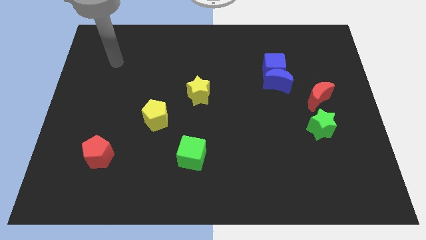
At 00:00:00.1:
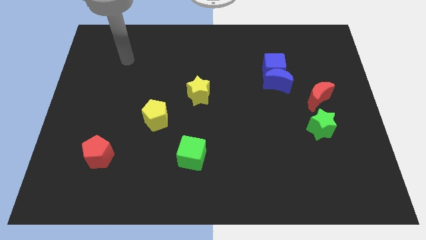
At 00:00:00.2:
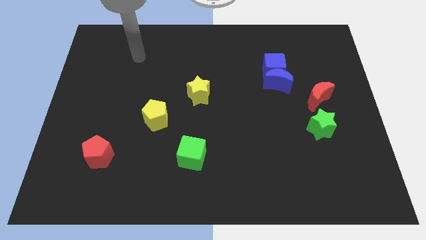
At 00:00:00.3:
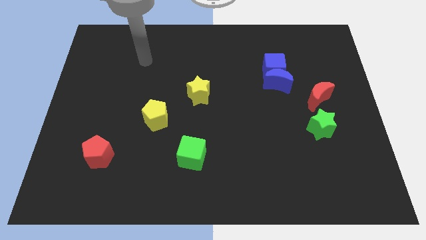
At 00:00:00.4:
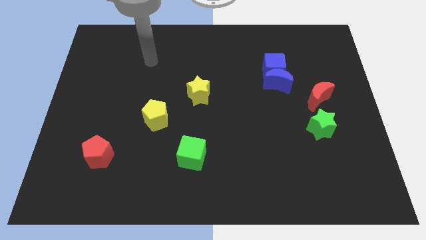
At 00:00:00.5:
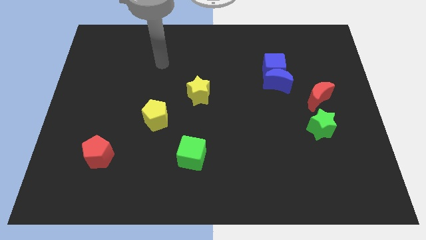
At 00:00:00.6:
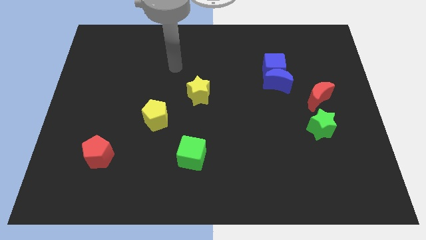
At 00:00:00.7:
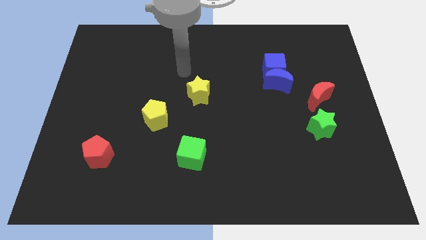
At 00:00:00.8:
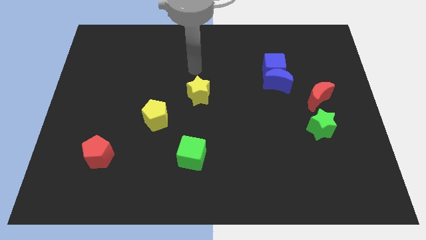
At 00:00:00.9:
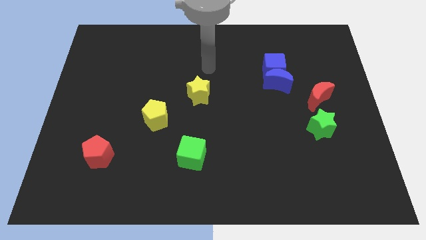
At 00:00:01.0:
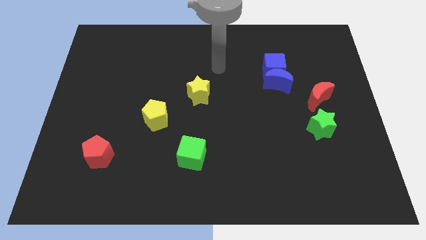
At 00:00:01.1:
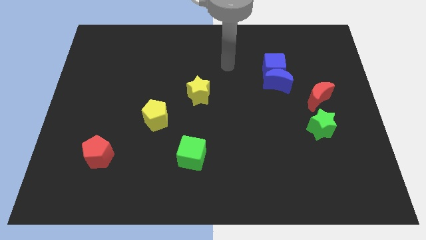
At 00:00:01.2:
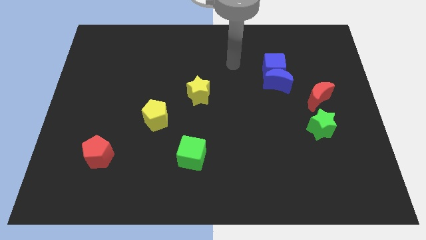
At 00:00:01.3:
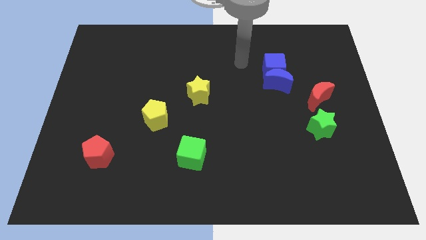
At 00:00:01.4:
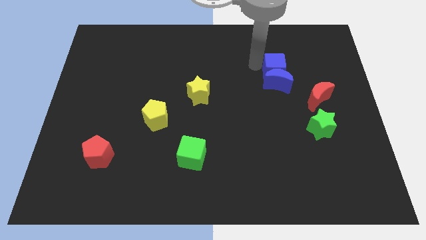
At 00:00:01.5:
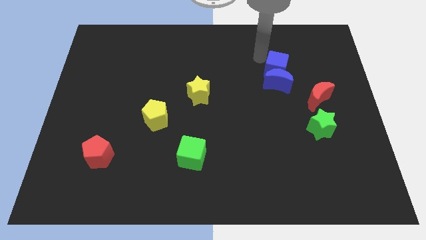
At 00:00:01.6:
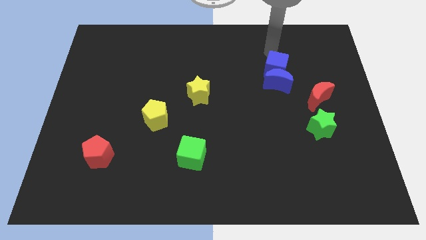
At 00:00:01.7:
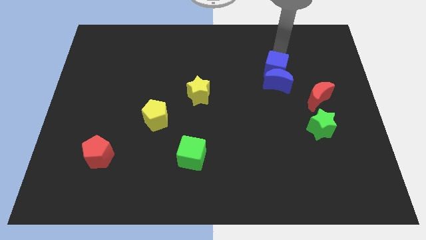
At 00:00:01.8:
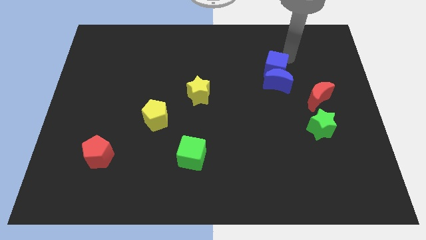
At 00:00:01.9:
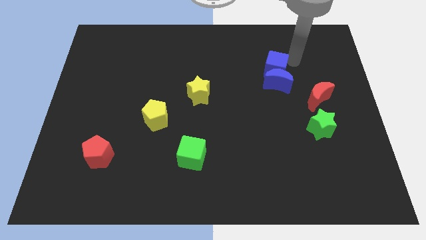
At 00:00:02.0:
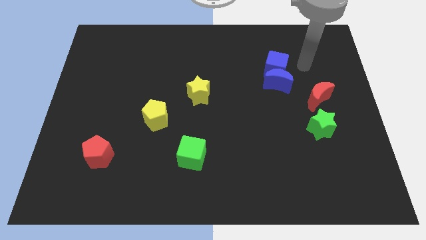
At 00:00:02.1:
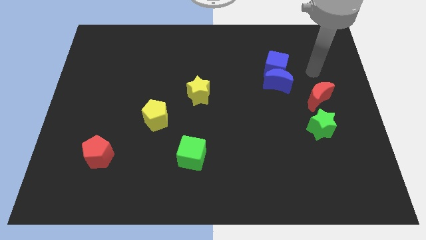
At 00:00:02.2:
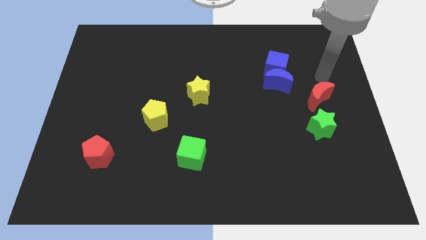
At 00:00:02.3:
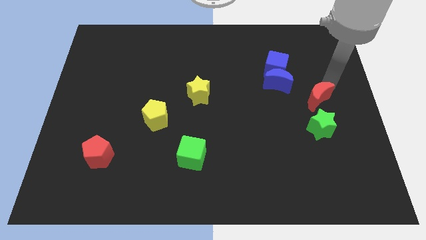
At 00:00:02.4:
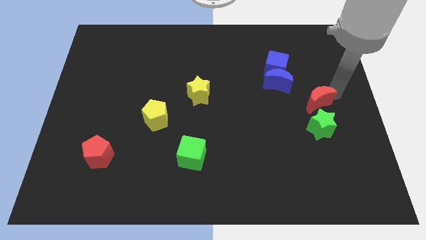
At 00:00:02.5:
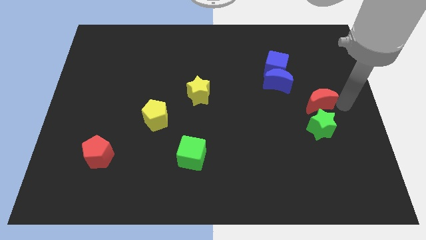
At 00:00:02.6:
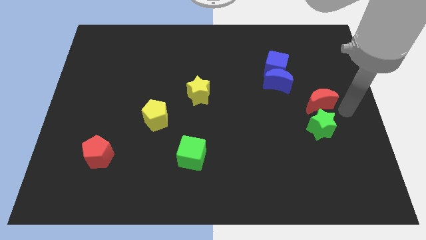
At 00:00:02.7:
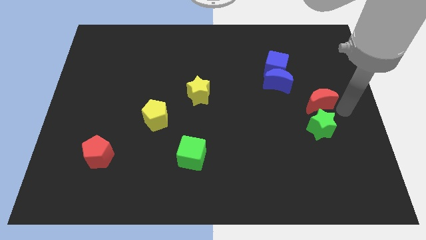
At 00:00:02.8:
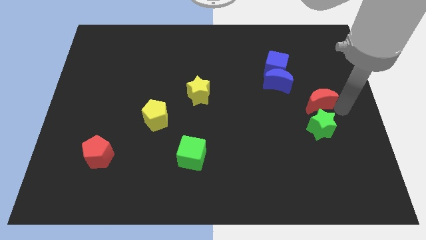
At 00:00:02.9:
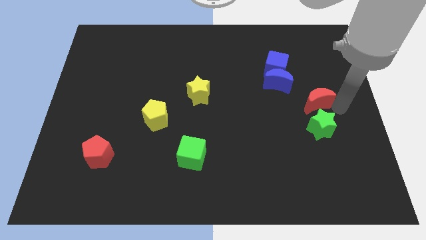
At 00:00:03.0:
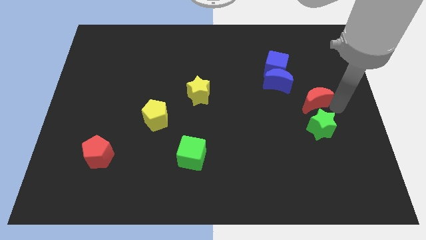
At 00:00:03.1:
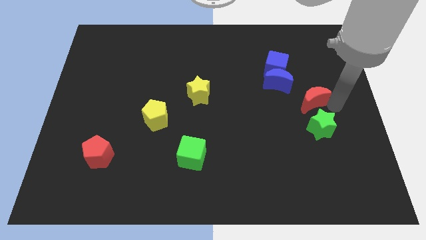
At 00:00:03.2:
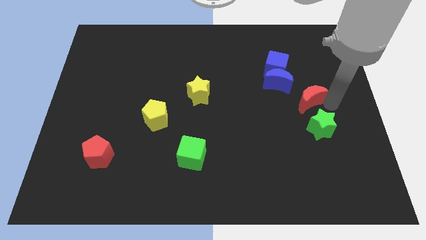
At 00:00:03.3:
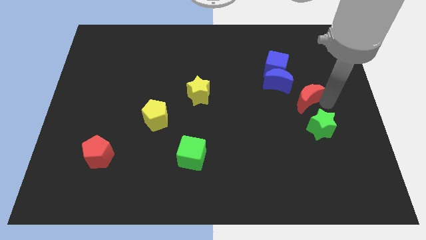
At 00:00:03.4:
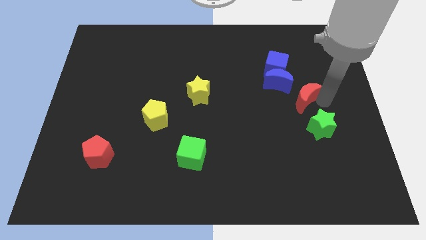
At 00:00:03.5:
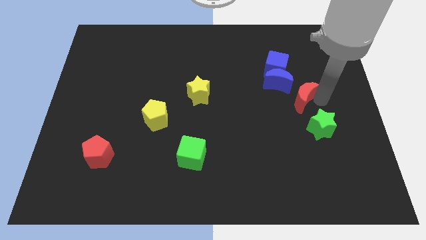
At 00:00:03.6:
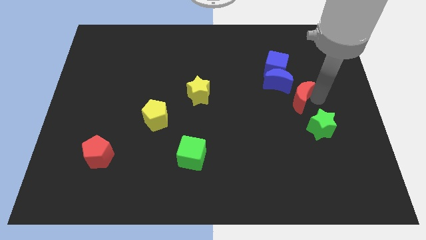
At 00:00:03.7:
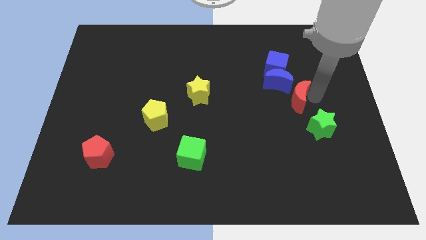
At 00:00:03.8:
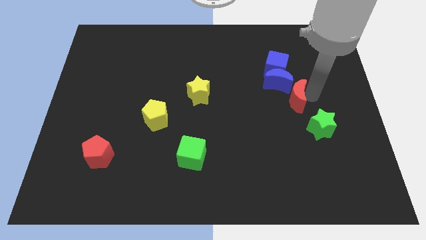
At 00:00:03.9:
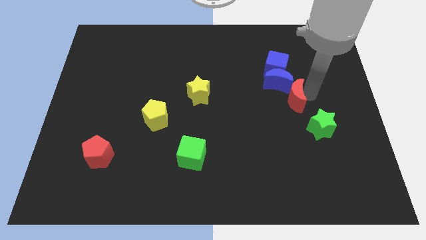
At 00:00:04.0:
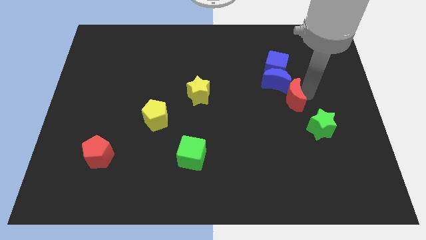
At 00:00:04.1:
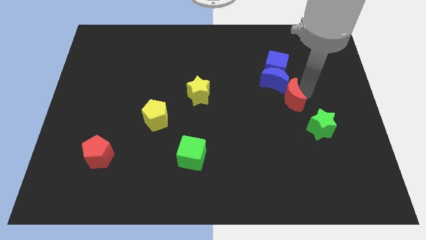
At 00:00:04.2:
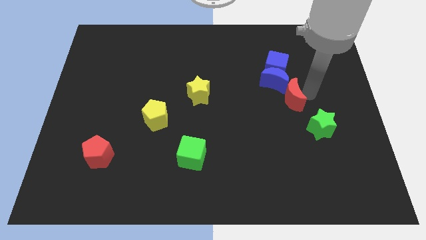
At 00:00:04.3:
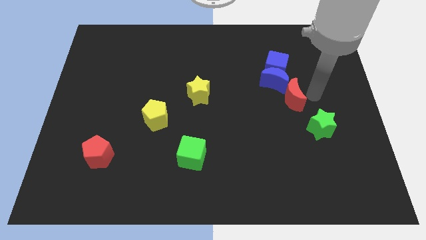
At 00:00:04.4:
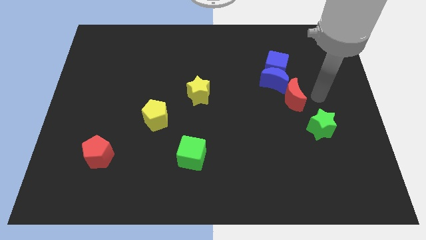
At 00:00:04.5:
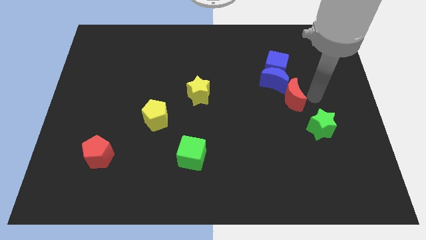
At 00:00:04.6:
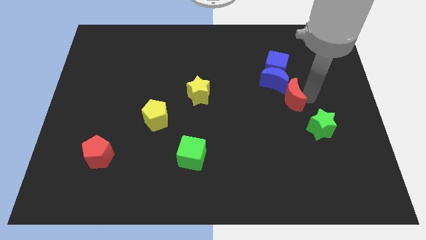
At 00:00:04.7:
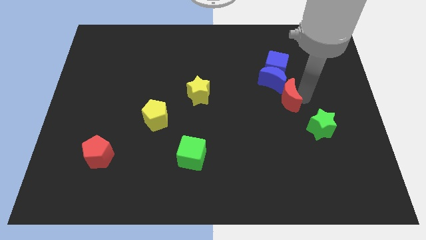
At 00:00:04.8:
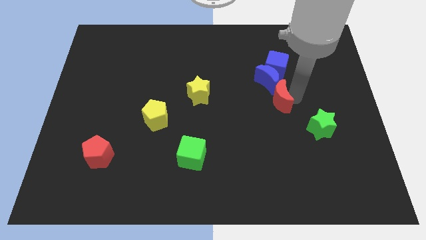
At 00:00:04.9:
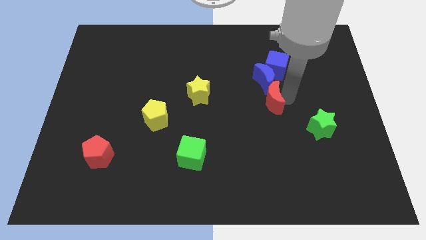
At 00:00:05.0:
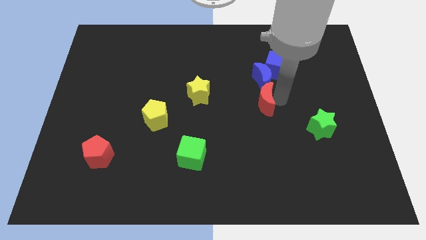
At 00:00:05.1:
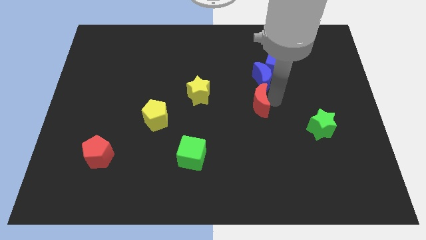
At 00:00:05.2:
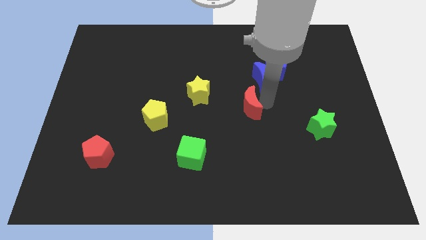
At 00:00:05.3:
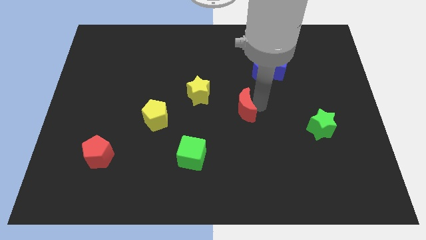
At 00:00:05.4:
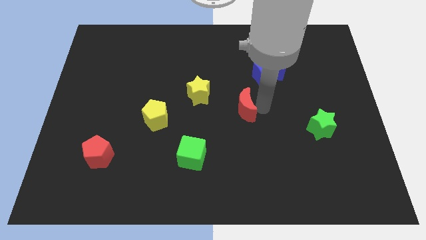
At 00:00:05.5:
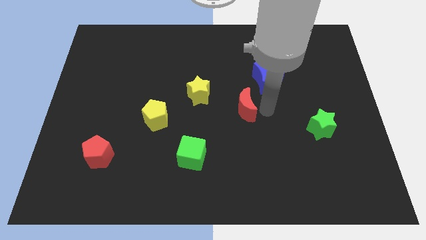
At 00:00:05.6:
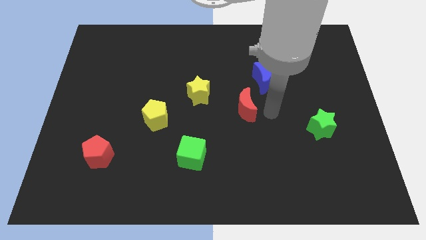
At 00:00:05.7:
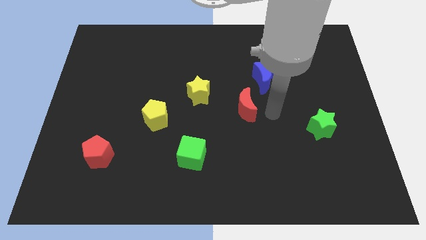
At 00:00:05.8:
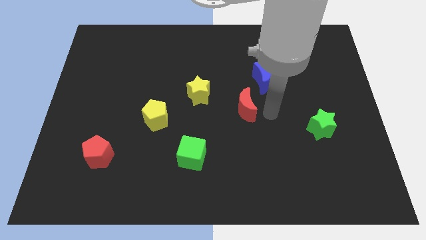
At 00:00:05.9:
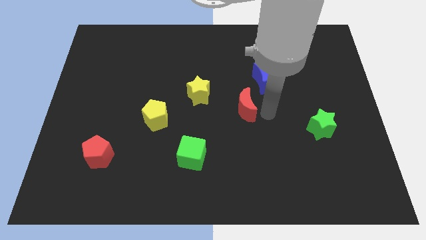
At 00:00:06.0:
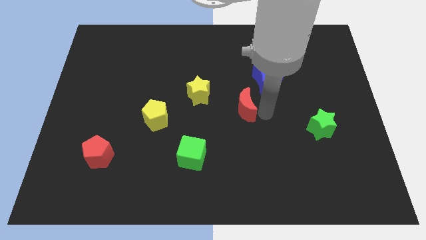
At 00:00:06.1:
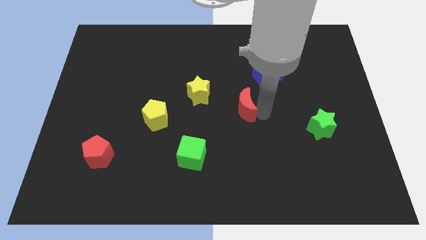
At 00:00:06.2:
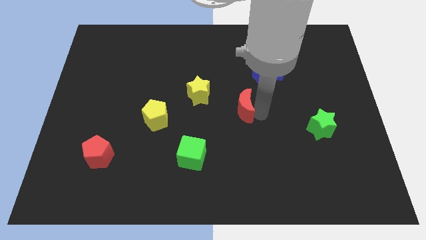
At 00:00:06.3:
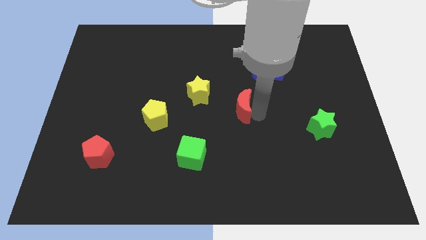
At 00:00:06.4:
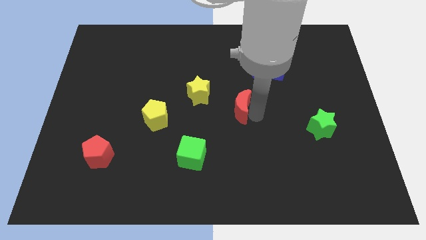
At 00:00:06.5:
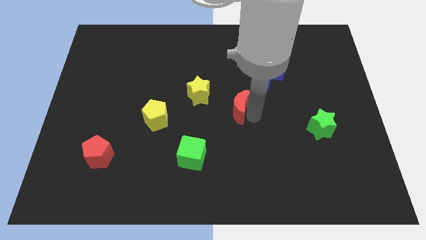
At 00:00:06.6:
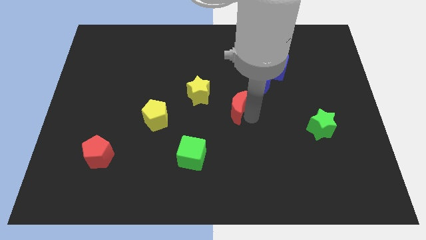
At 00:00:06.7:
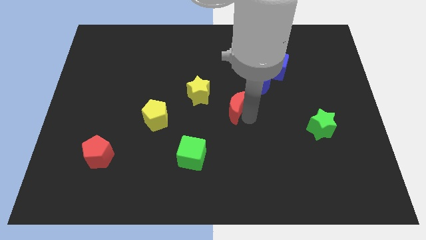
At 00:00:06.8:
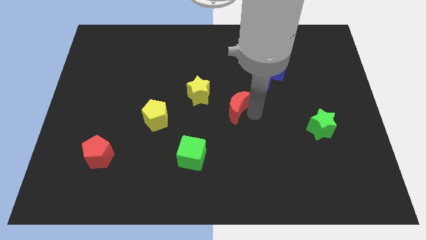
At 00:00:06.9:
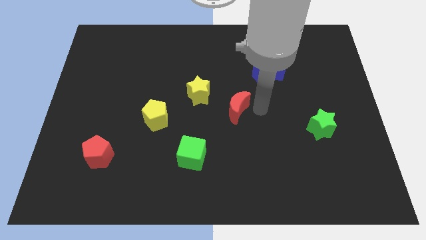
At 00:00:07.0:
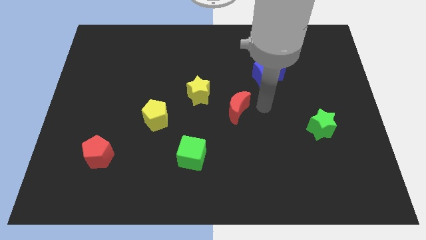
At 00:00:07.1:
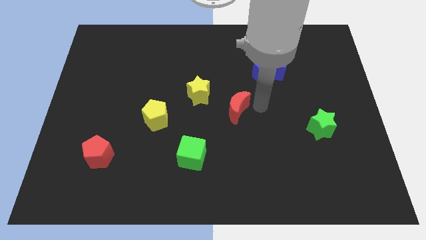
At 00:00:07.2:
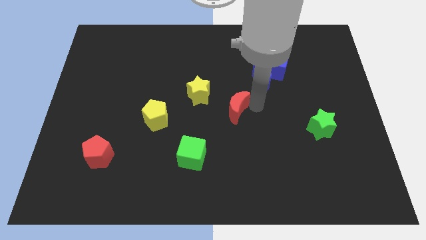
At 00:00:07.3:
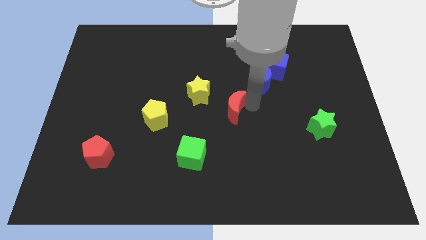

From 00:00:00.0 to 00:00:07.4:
move the red moon left

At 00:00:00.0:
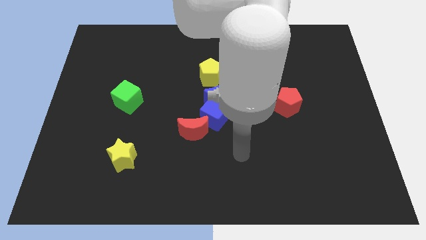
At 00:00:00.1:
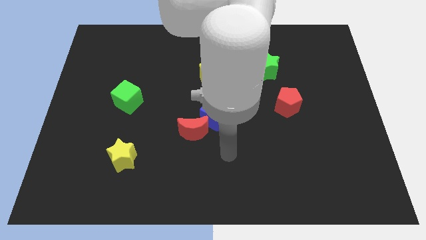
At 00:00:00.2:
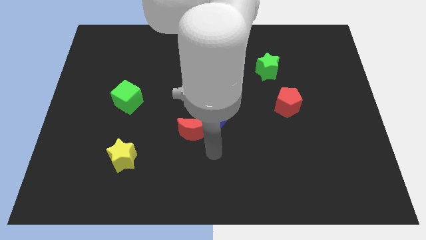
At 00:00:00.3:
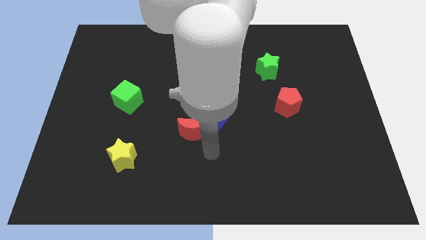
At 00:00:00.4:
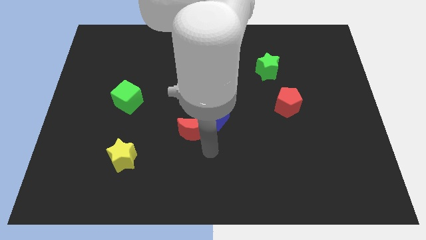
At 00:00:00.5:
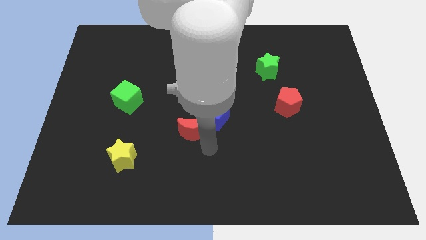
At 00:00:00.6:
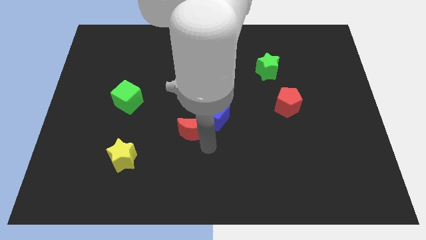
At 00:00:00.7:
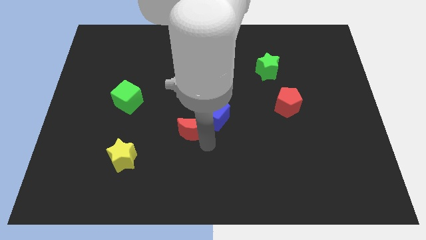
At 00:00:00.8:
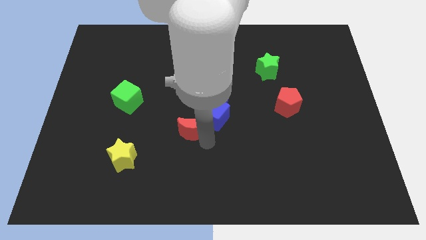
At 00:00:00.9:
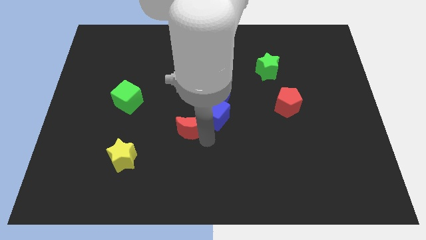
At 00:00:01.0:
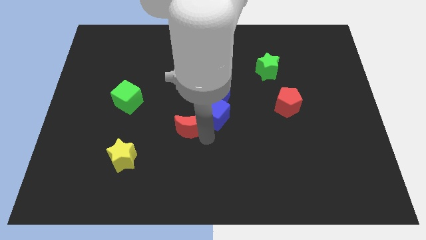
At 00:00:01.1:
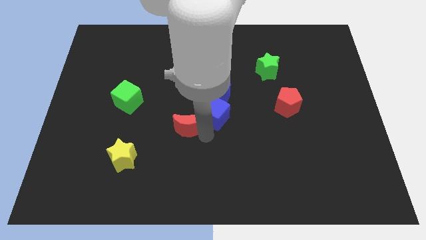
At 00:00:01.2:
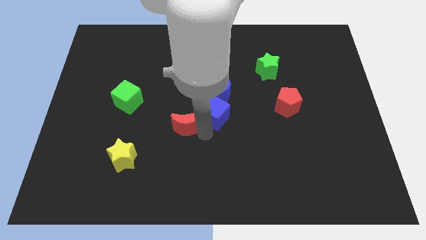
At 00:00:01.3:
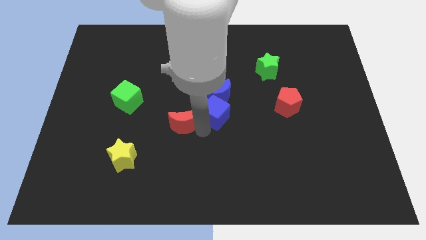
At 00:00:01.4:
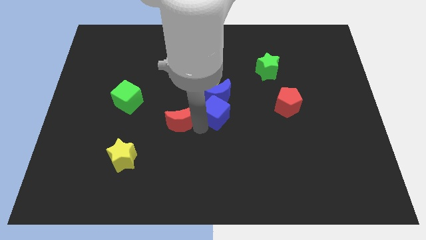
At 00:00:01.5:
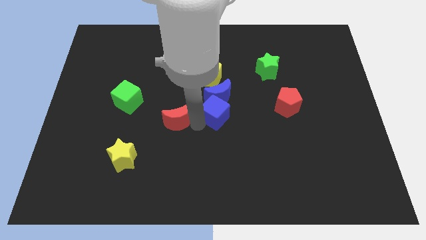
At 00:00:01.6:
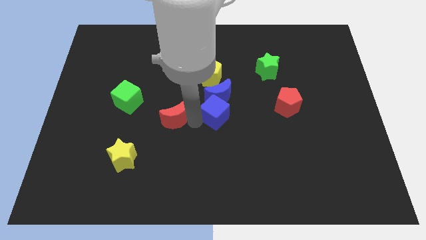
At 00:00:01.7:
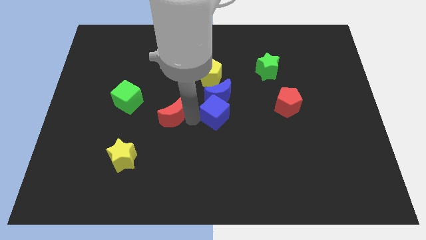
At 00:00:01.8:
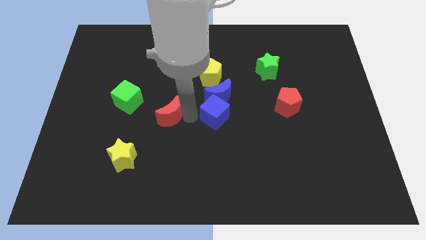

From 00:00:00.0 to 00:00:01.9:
move the red moon somewhat up and to the left diagonally
